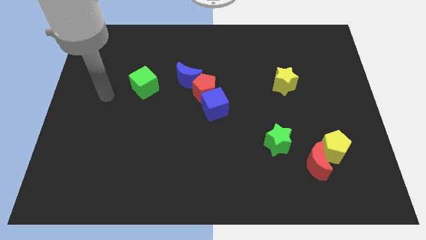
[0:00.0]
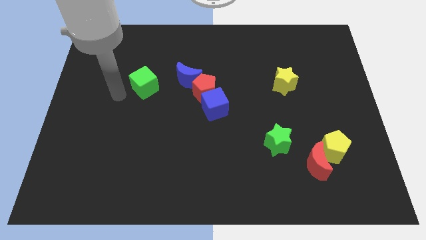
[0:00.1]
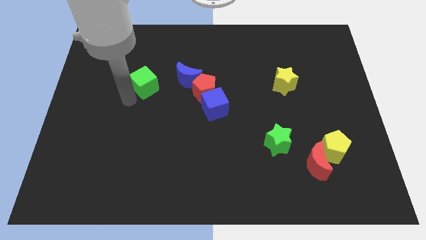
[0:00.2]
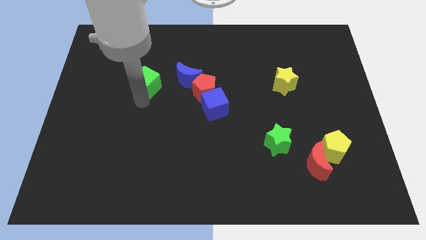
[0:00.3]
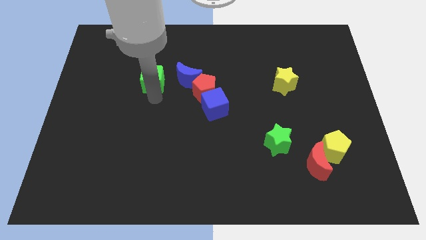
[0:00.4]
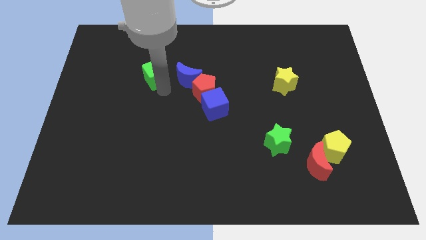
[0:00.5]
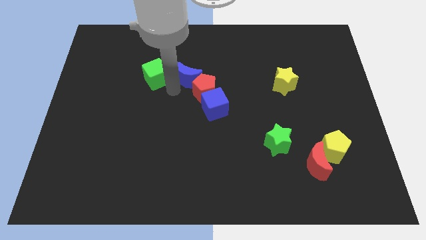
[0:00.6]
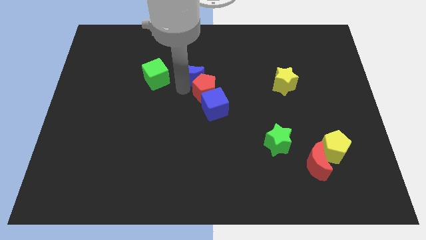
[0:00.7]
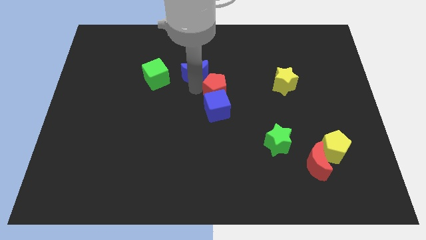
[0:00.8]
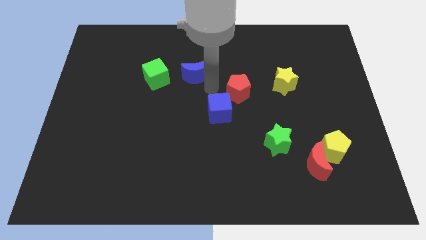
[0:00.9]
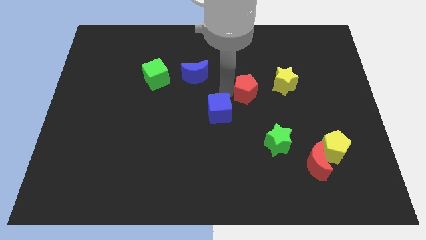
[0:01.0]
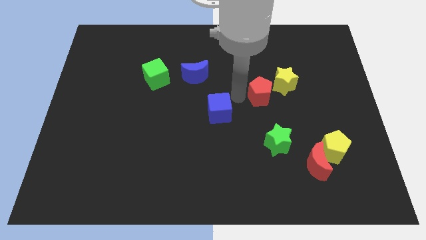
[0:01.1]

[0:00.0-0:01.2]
pull the blue cube apart from the red pentagon

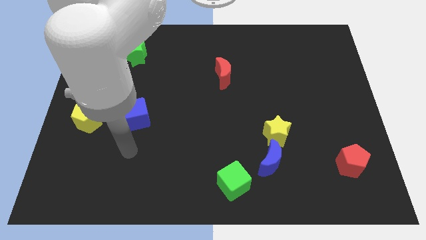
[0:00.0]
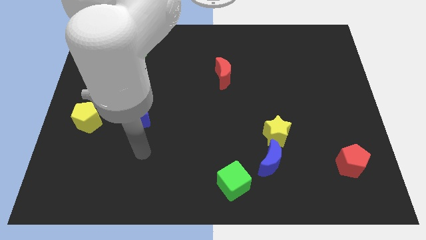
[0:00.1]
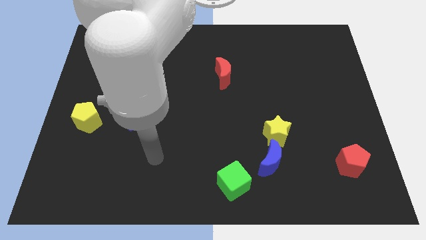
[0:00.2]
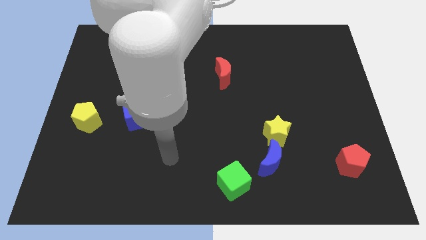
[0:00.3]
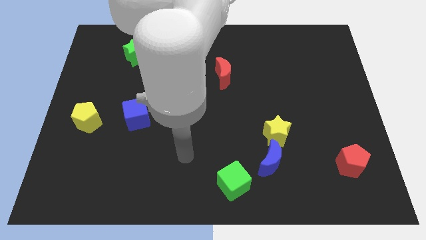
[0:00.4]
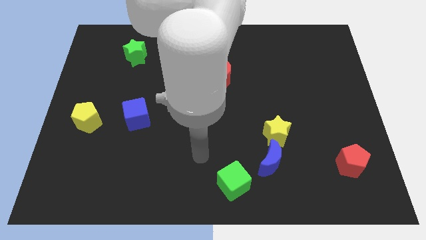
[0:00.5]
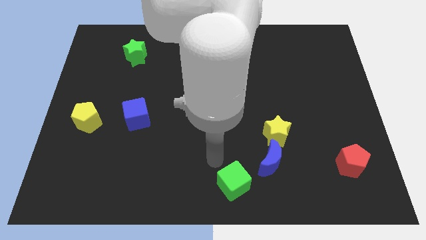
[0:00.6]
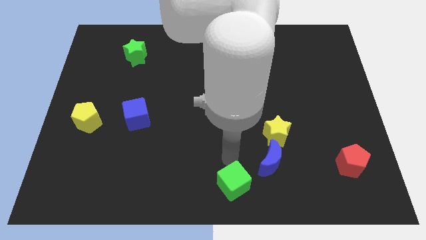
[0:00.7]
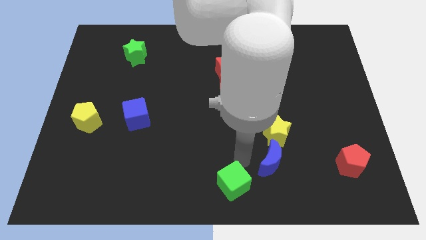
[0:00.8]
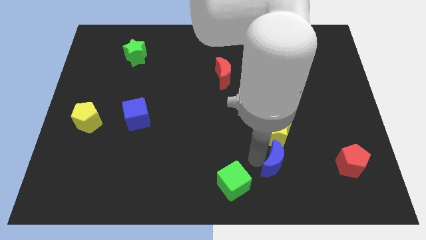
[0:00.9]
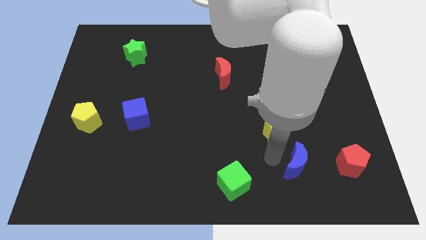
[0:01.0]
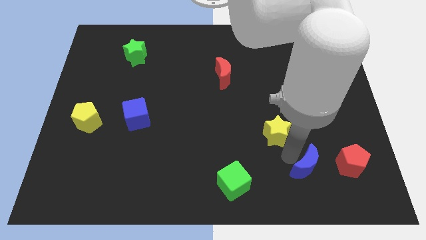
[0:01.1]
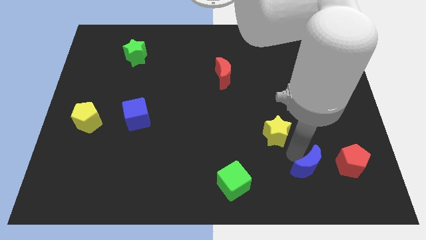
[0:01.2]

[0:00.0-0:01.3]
pull the yellow star apart from the blue moon

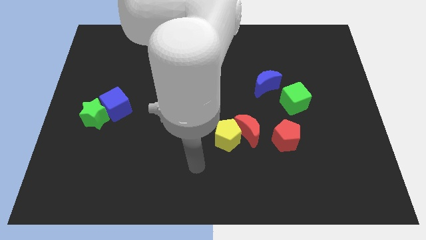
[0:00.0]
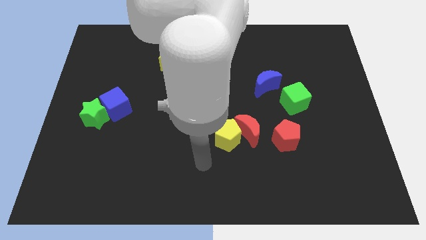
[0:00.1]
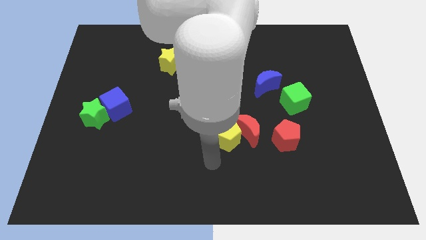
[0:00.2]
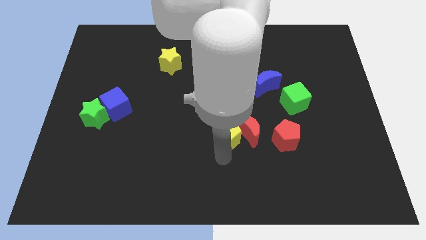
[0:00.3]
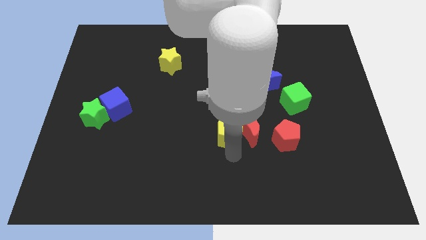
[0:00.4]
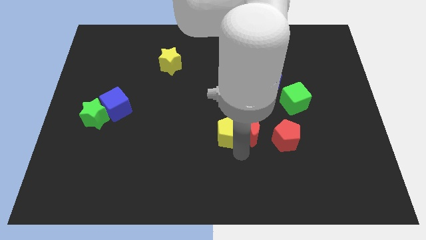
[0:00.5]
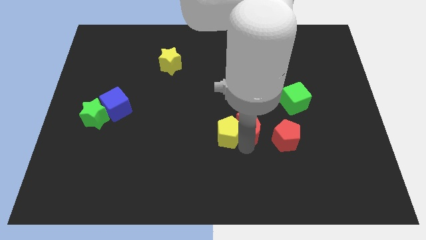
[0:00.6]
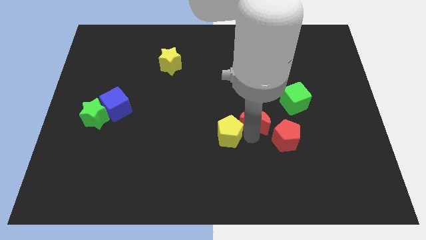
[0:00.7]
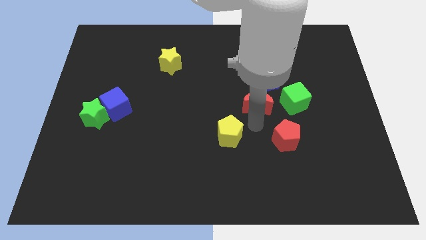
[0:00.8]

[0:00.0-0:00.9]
pull the yellow pentagon apart from the red moon

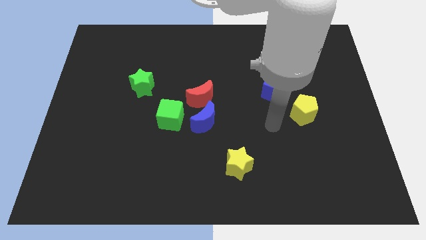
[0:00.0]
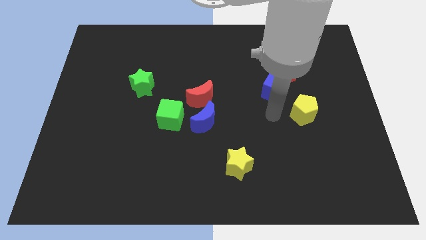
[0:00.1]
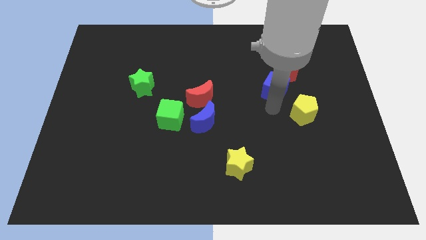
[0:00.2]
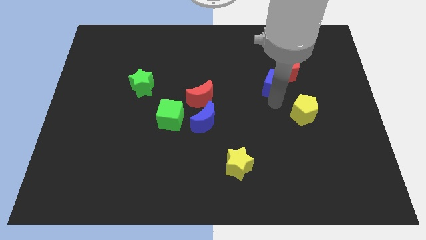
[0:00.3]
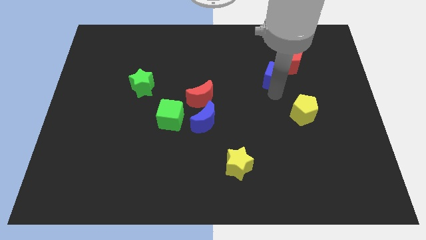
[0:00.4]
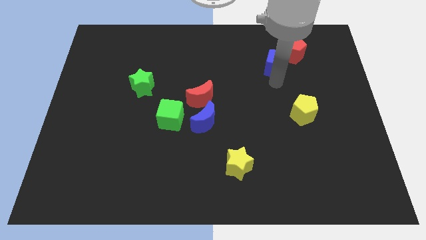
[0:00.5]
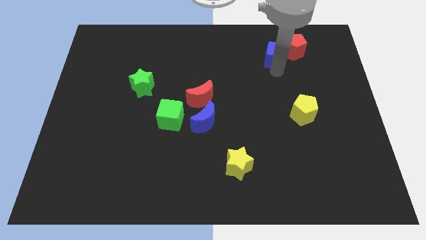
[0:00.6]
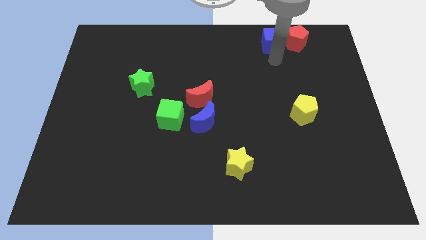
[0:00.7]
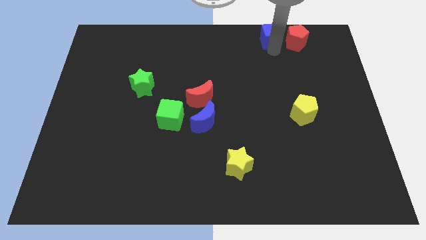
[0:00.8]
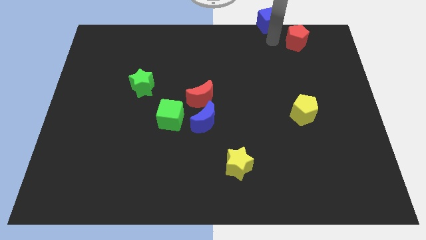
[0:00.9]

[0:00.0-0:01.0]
pull the red pentagon apart from the blue cube

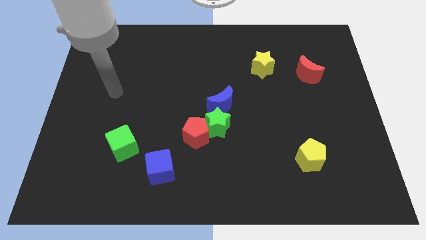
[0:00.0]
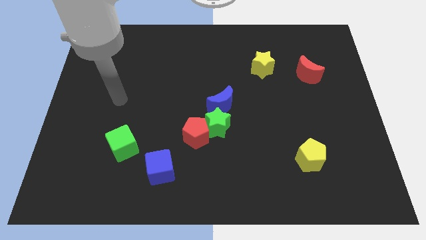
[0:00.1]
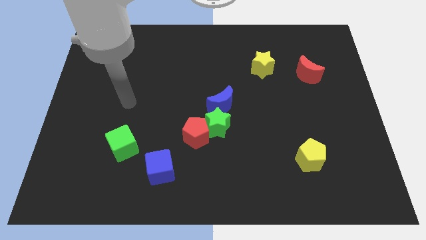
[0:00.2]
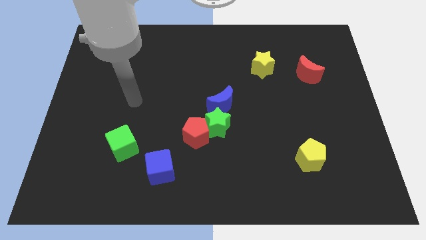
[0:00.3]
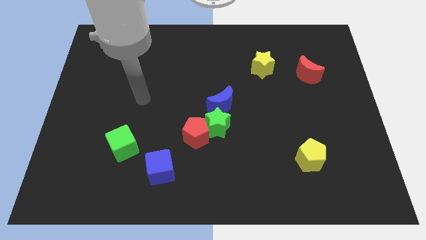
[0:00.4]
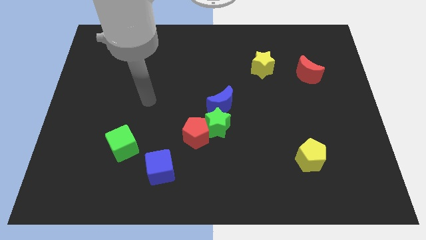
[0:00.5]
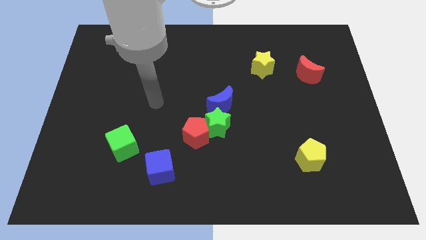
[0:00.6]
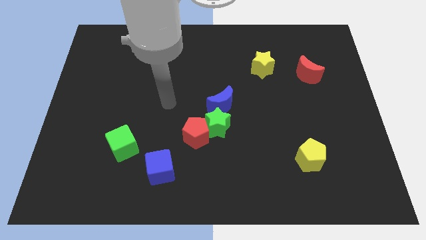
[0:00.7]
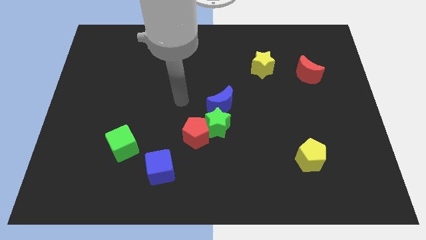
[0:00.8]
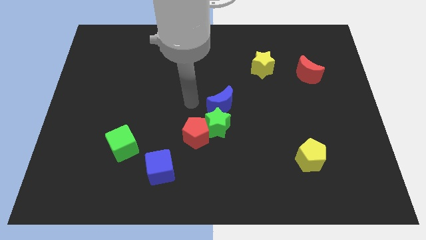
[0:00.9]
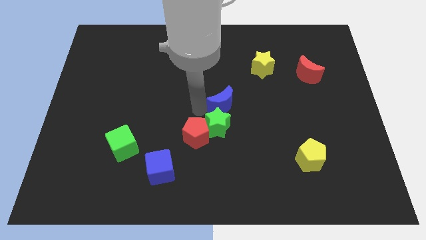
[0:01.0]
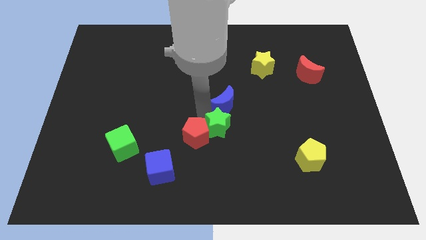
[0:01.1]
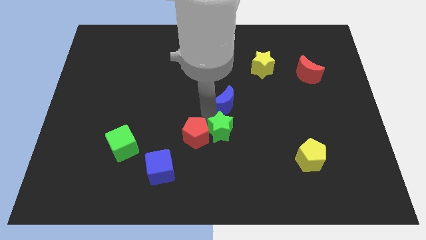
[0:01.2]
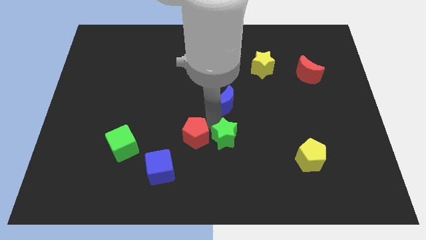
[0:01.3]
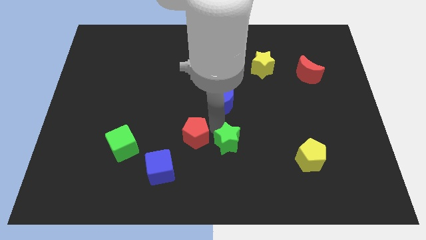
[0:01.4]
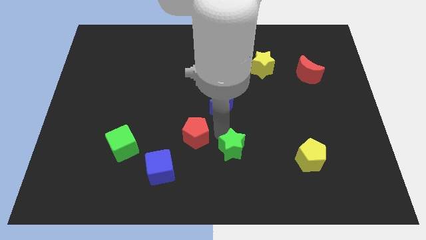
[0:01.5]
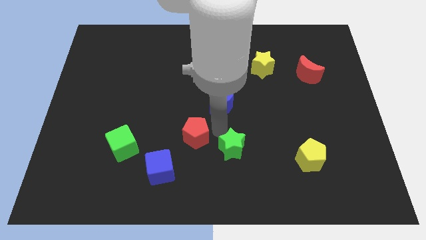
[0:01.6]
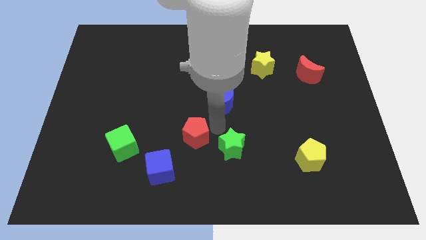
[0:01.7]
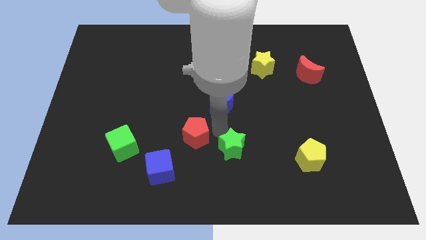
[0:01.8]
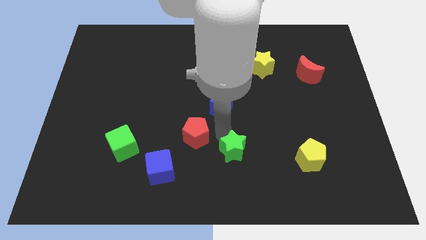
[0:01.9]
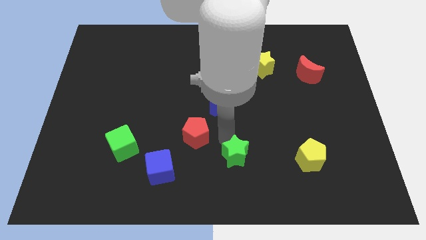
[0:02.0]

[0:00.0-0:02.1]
pull the green star apart from the red pentagon and blue moon

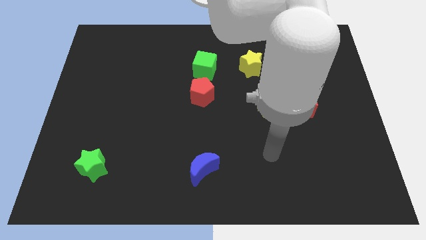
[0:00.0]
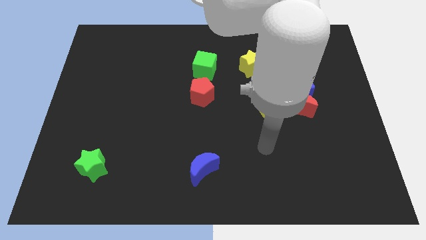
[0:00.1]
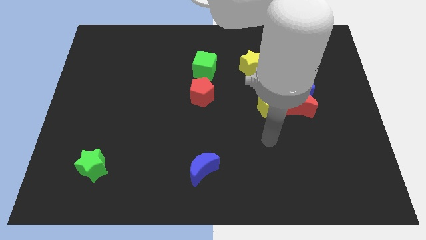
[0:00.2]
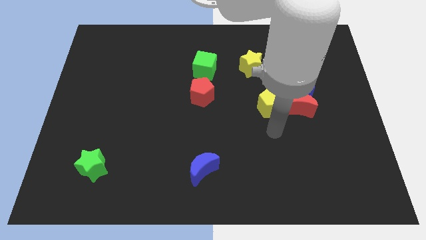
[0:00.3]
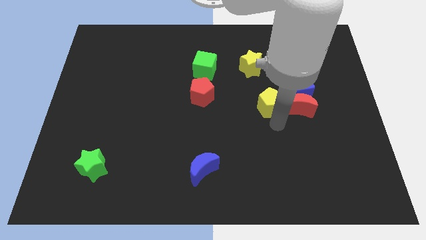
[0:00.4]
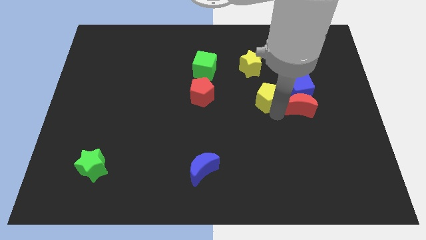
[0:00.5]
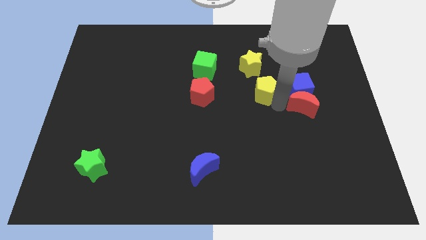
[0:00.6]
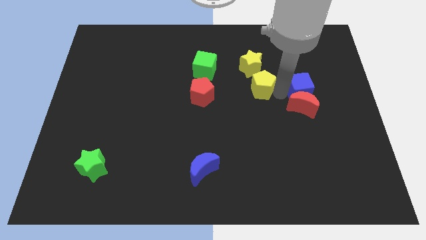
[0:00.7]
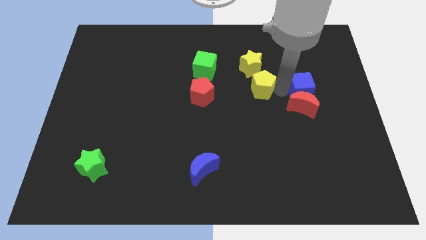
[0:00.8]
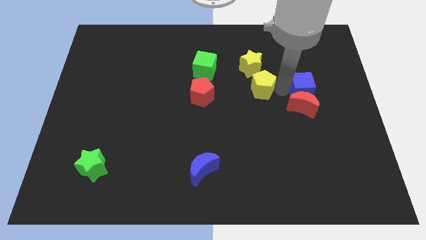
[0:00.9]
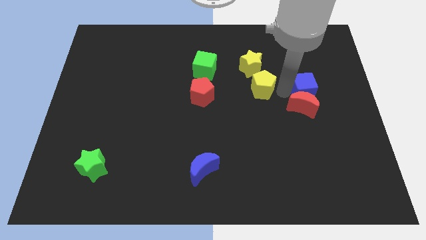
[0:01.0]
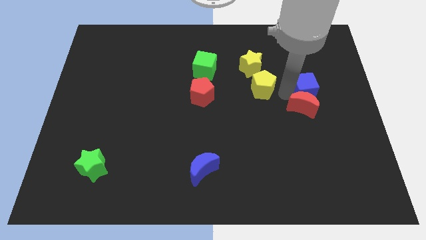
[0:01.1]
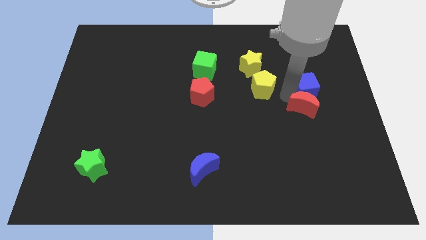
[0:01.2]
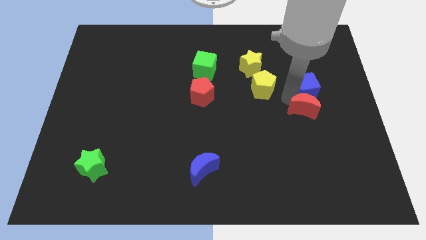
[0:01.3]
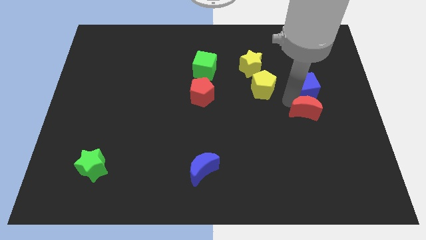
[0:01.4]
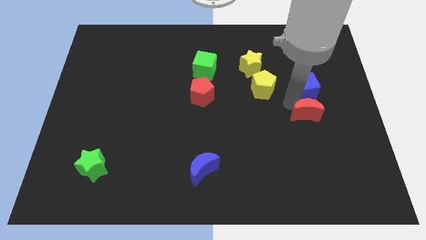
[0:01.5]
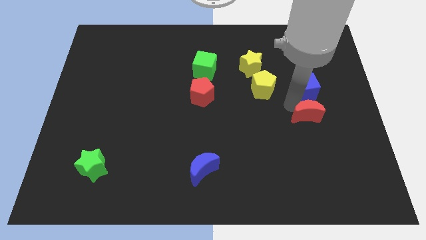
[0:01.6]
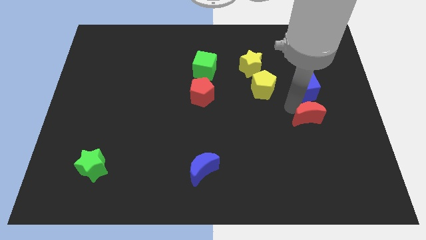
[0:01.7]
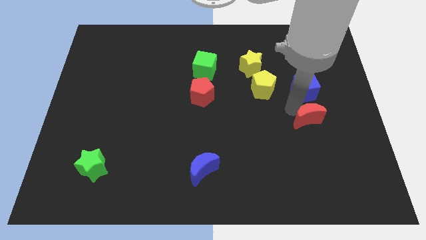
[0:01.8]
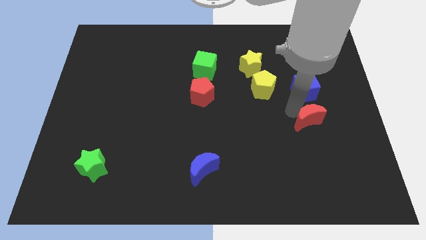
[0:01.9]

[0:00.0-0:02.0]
move the red moon away from the blue cube and yellow pentagon

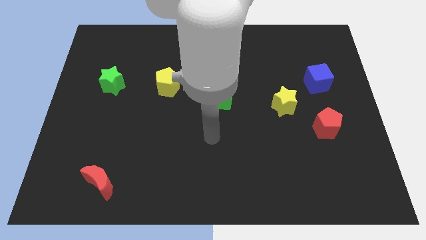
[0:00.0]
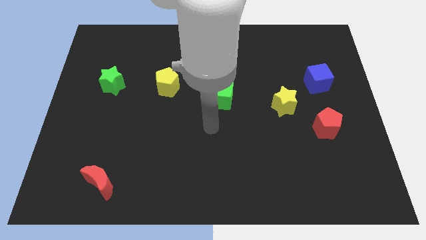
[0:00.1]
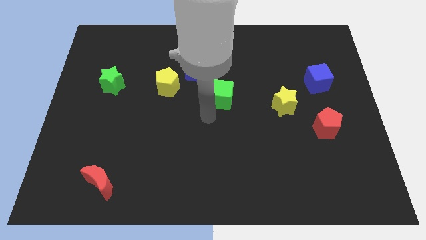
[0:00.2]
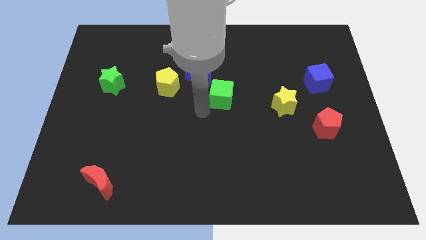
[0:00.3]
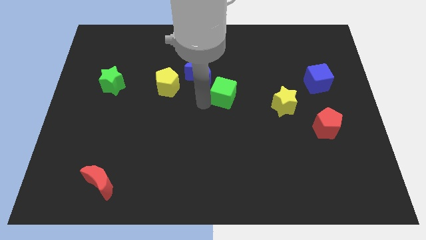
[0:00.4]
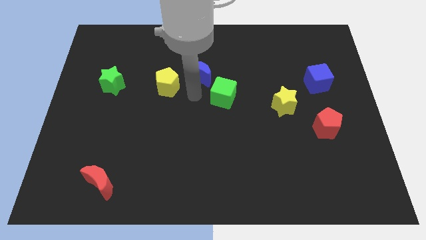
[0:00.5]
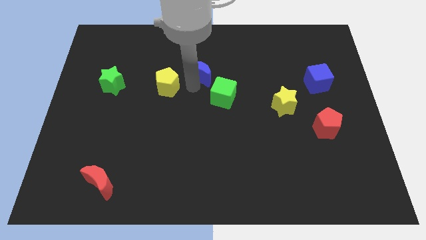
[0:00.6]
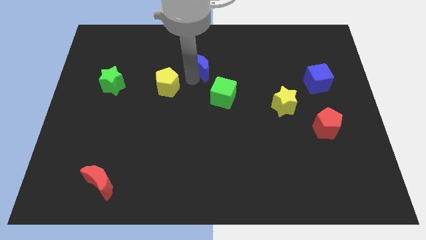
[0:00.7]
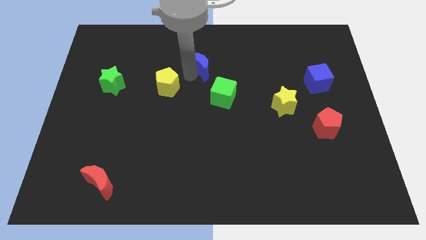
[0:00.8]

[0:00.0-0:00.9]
move the yellow pentagon away from the blue moon
